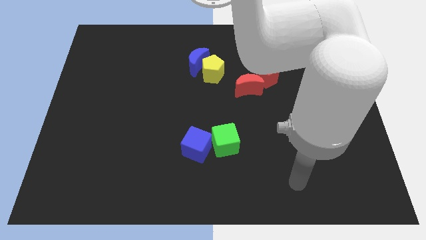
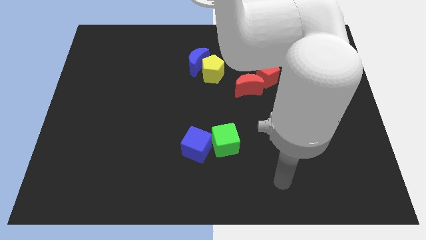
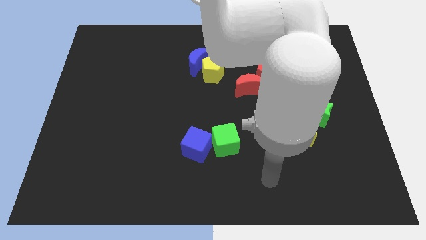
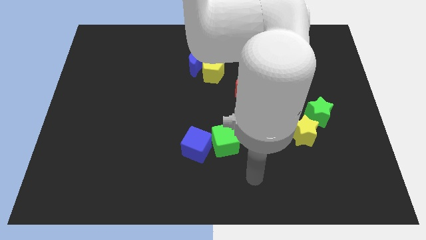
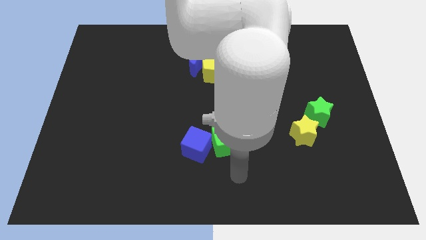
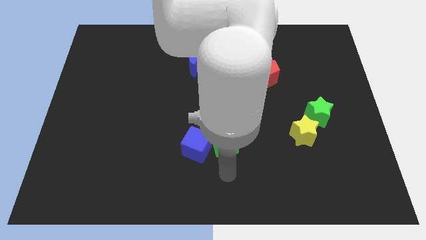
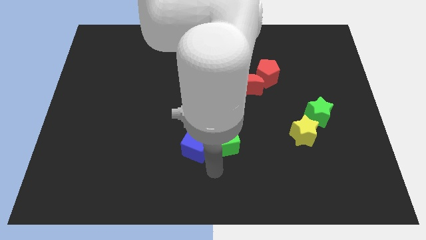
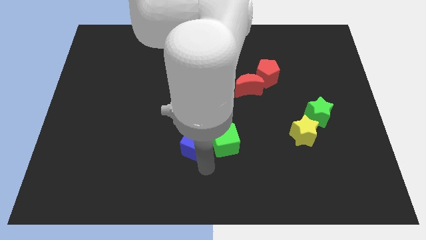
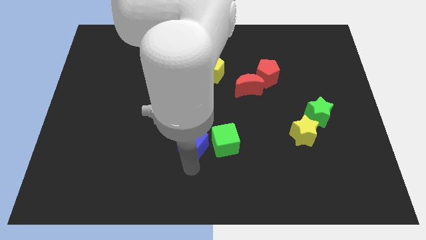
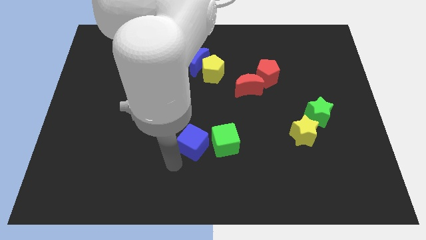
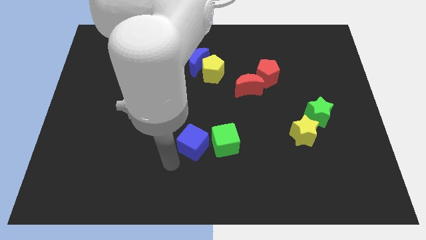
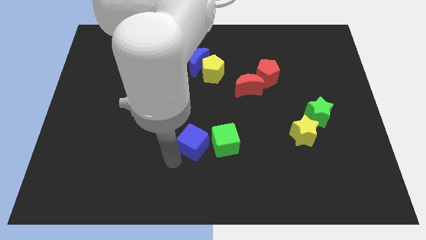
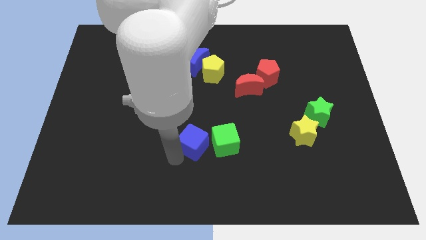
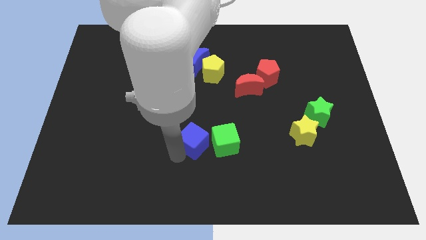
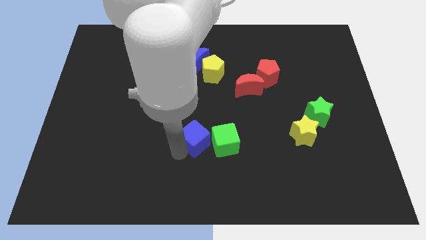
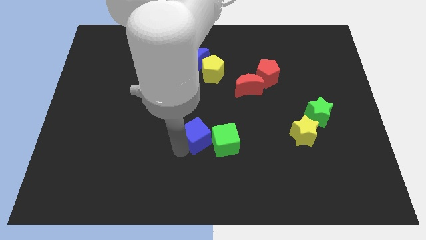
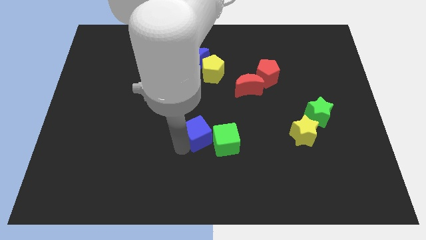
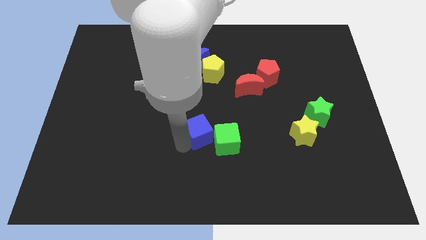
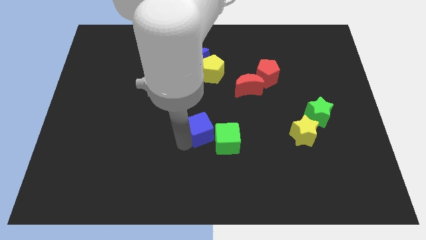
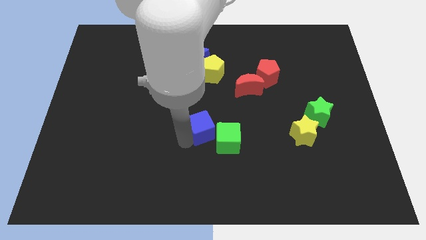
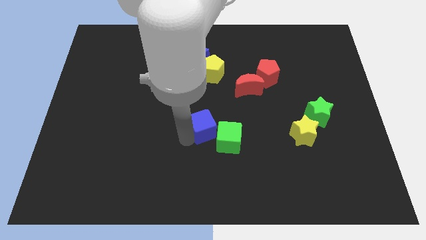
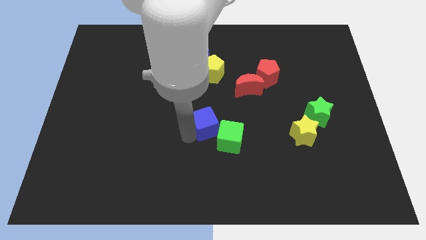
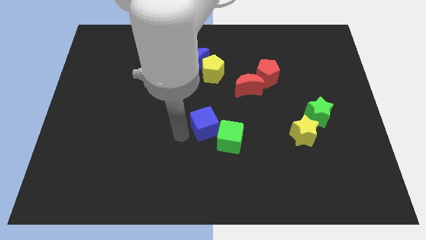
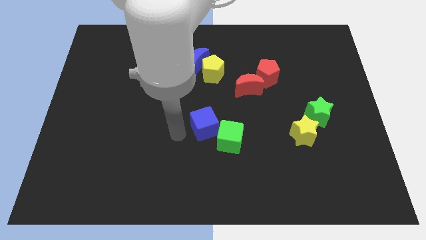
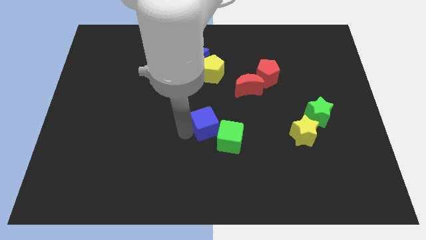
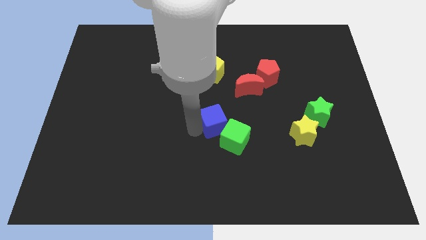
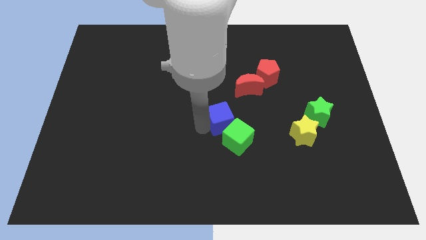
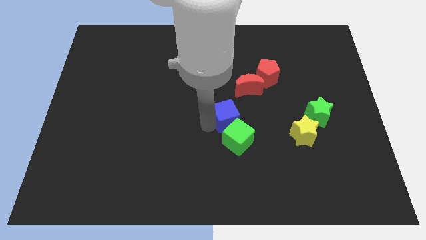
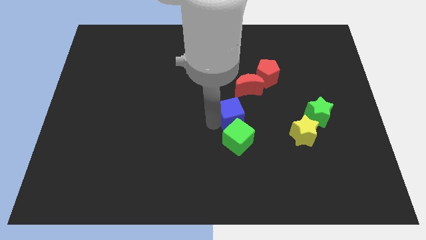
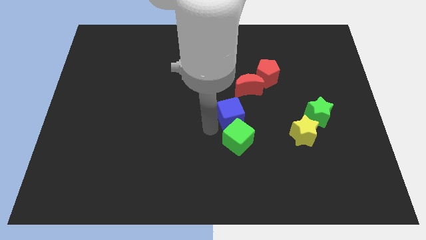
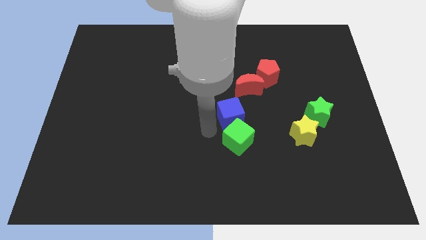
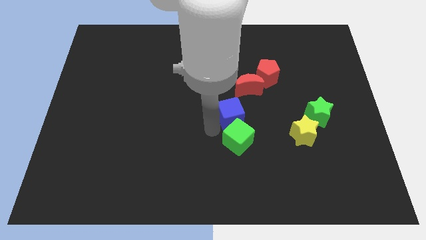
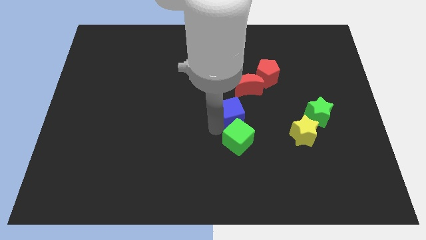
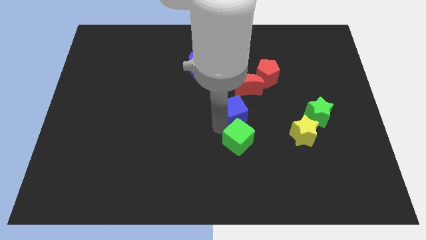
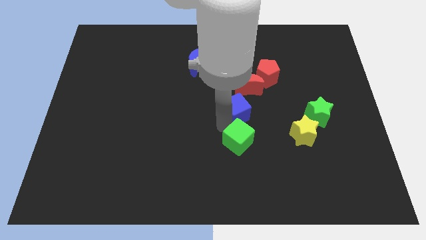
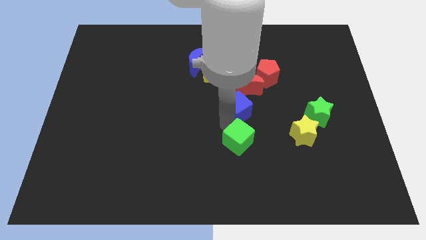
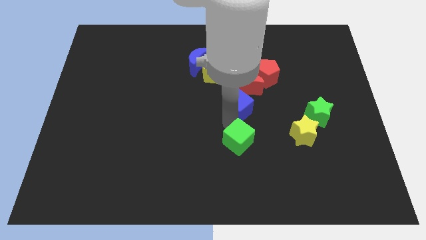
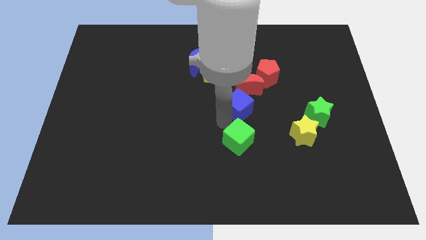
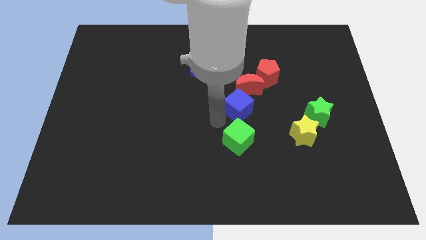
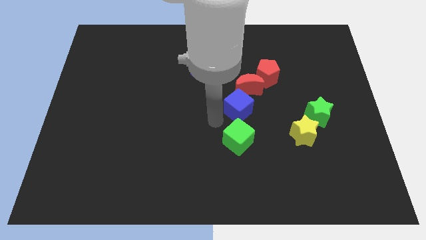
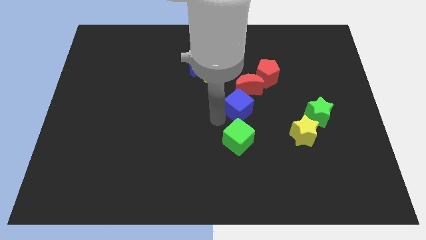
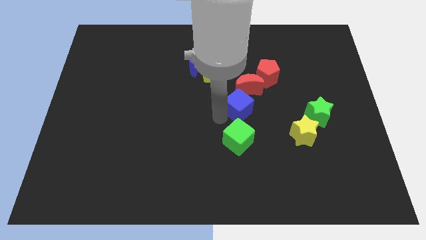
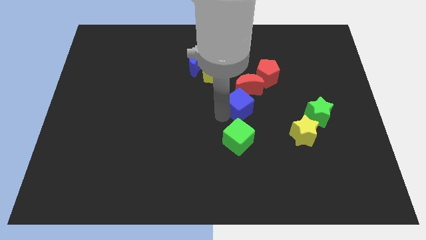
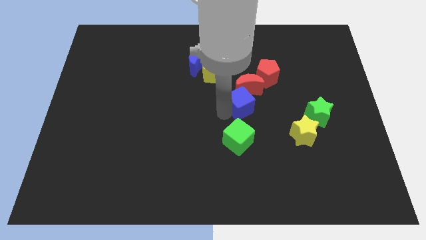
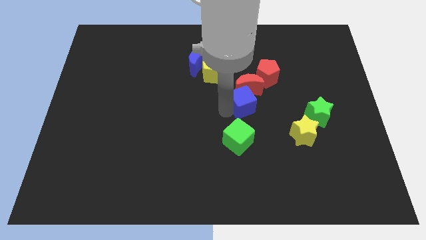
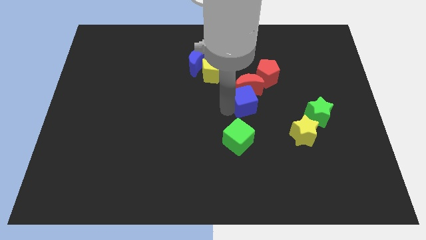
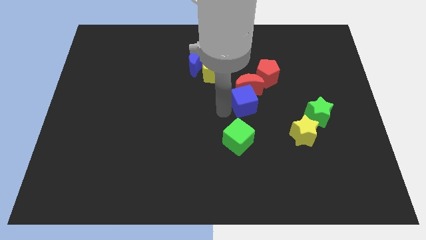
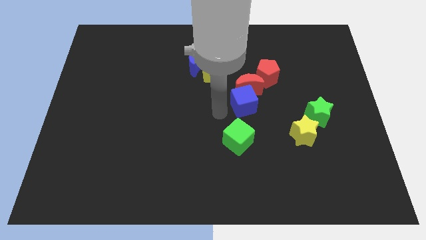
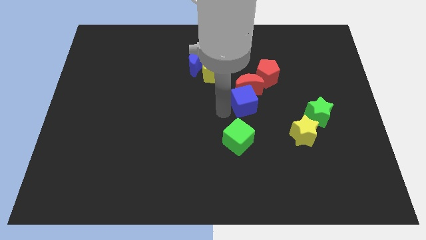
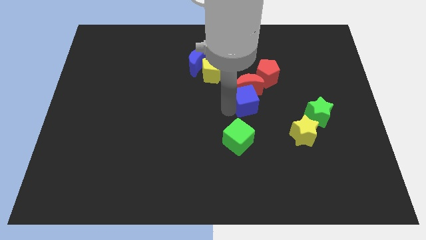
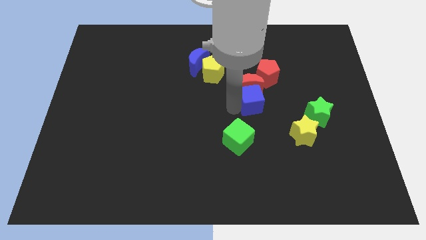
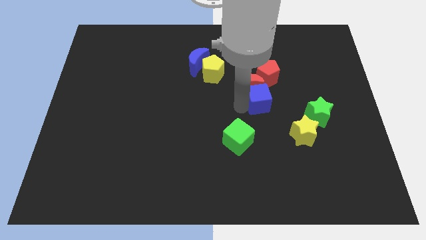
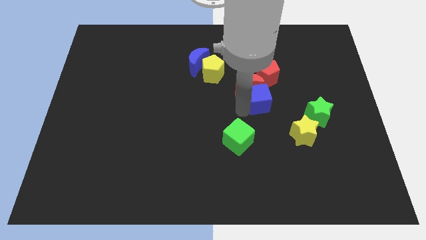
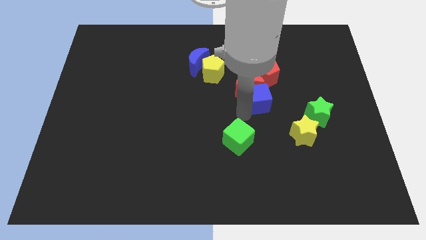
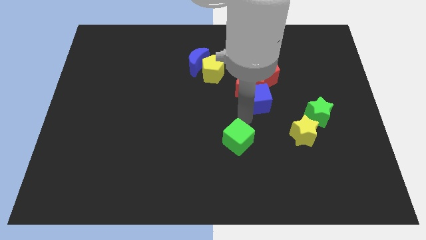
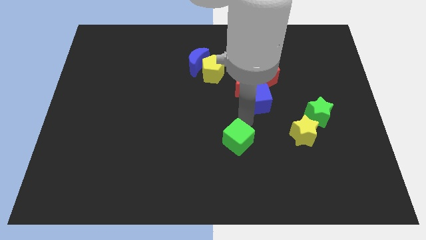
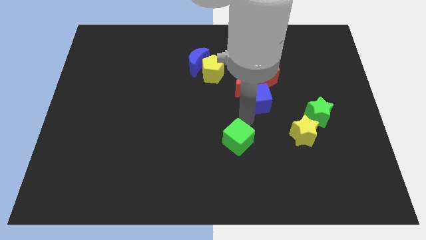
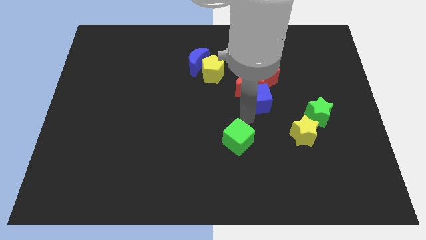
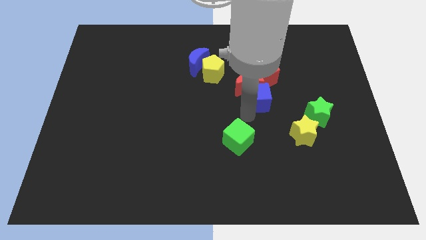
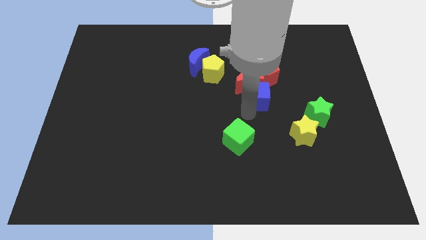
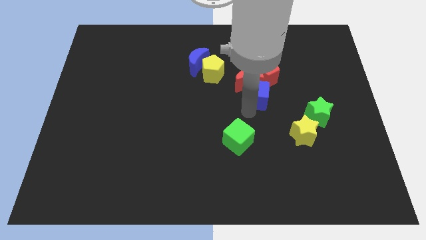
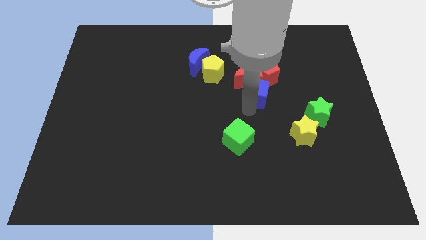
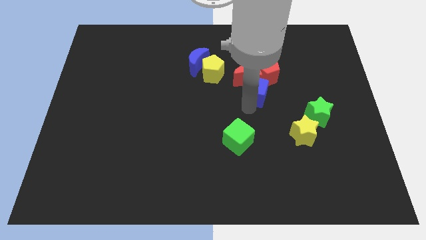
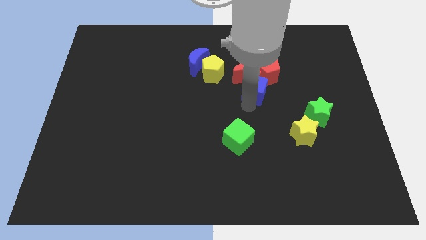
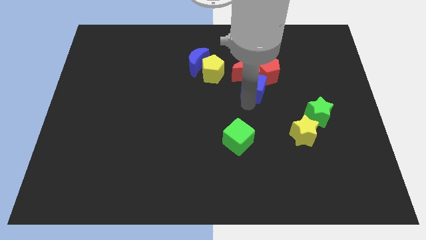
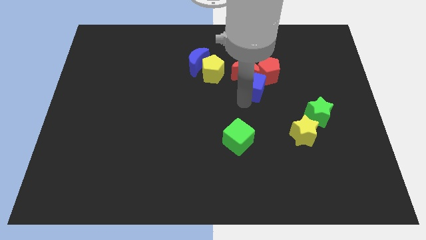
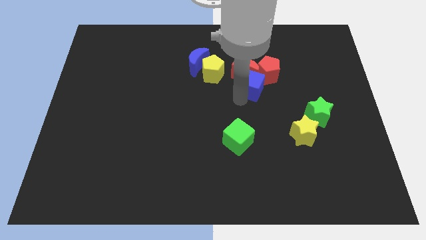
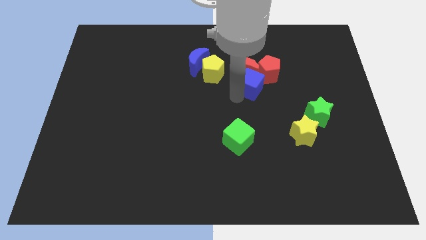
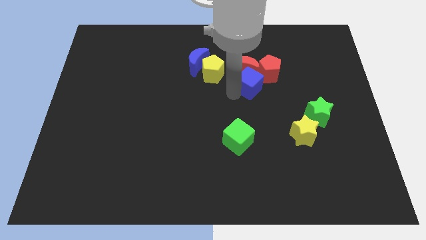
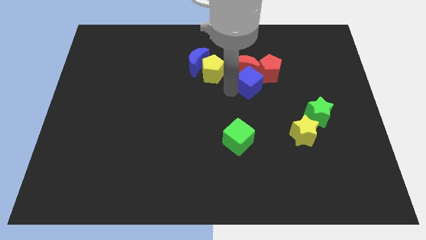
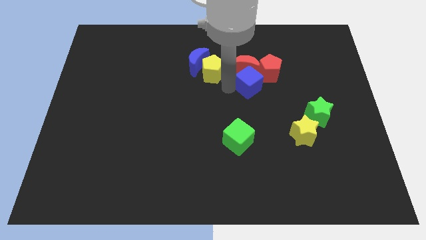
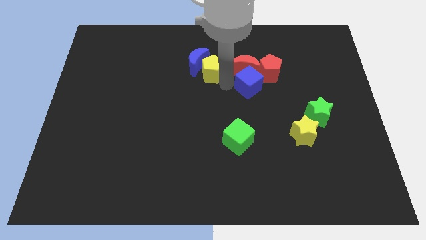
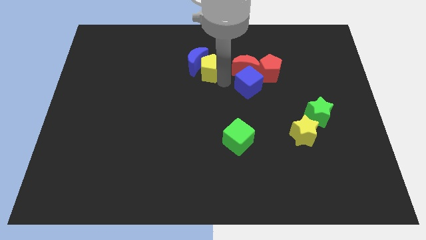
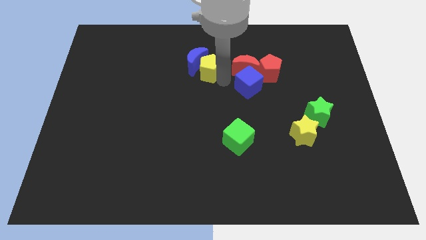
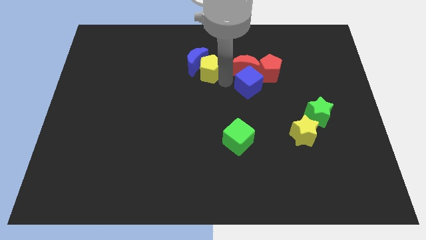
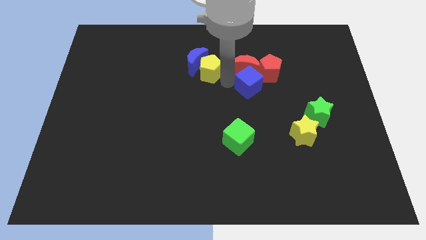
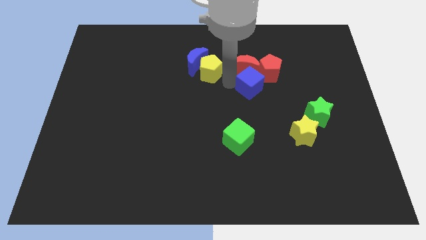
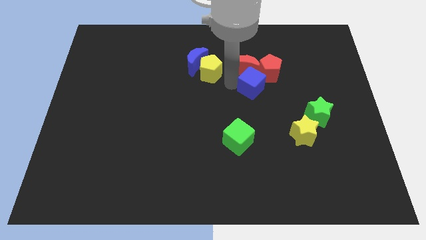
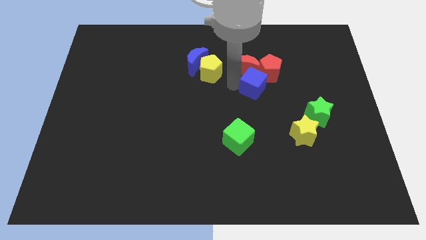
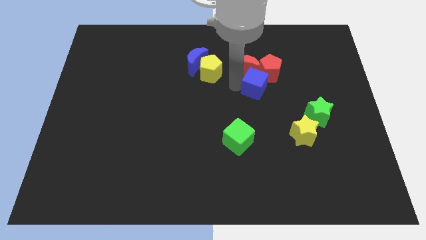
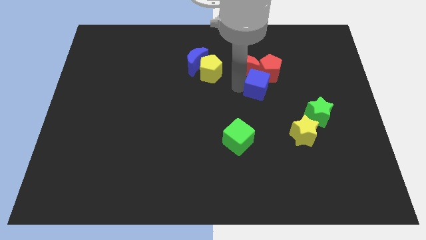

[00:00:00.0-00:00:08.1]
slide the blue cube towards the red pentagon
